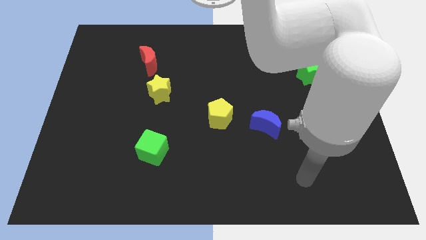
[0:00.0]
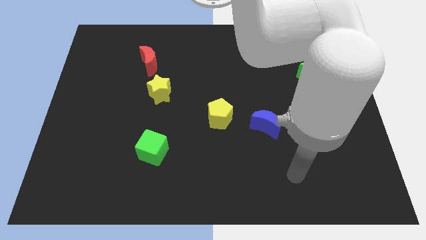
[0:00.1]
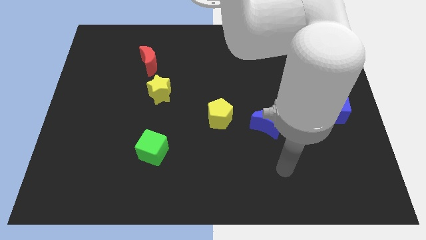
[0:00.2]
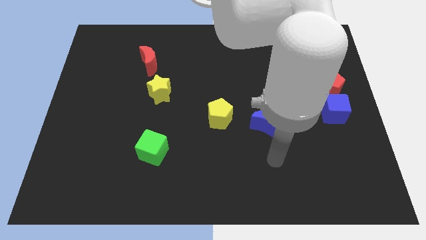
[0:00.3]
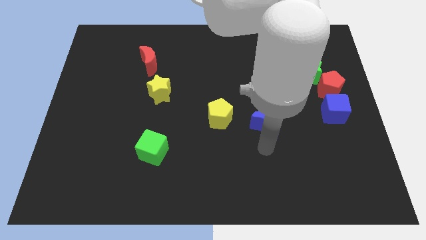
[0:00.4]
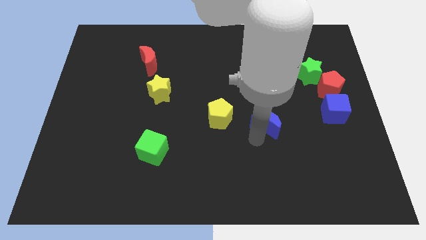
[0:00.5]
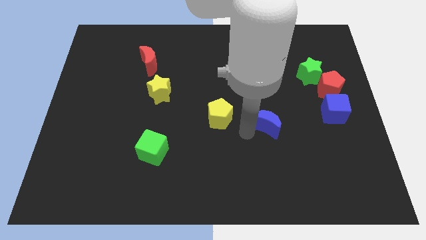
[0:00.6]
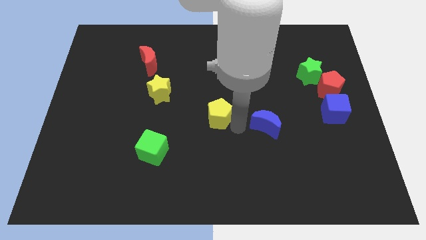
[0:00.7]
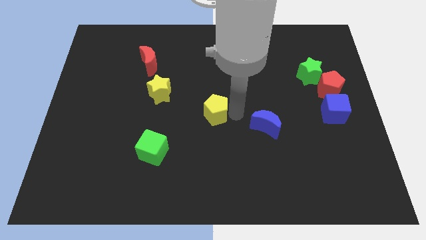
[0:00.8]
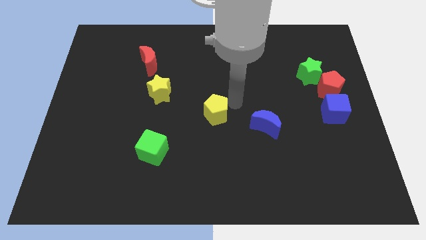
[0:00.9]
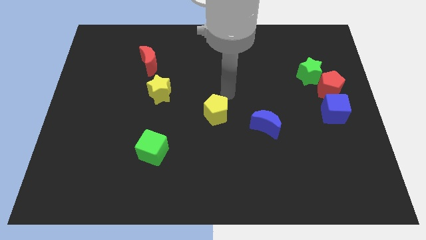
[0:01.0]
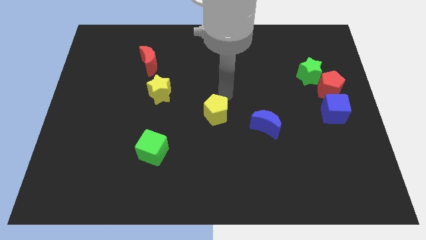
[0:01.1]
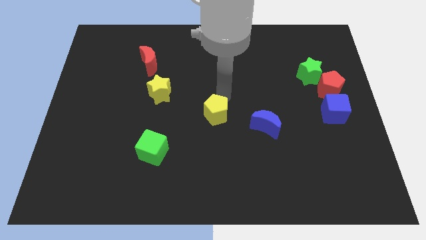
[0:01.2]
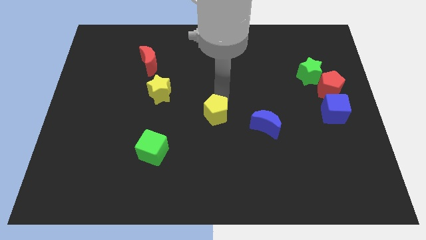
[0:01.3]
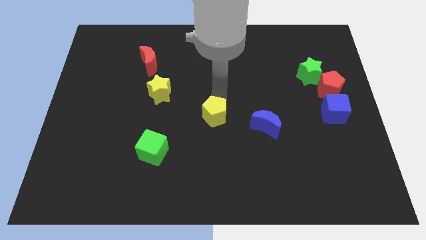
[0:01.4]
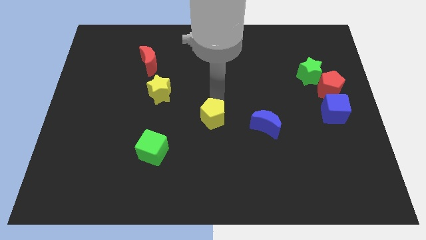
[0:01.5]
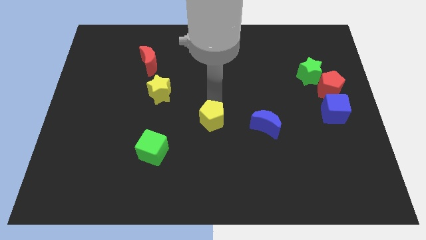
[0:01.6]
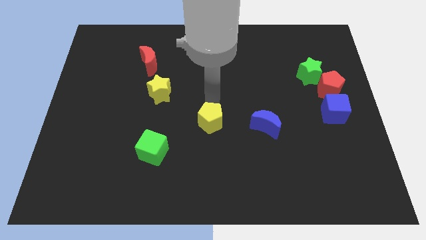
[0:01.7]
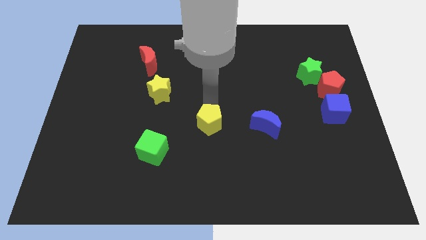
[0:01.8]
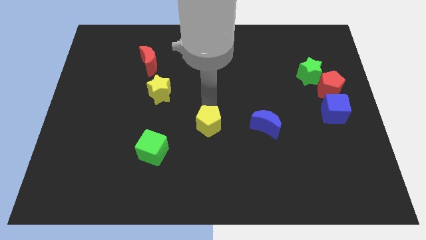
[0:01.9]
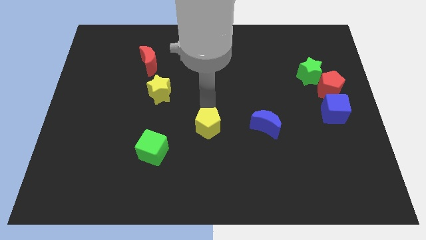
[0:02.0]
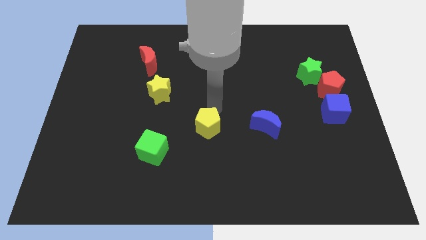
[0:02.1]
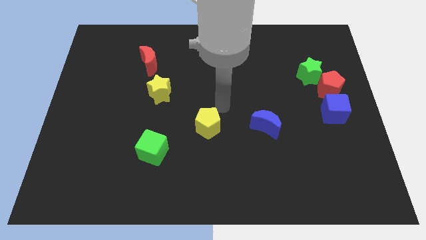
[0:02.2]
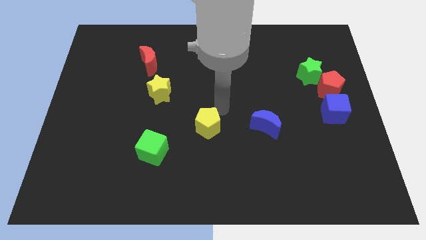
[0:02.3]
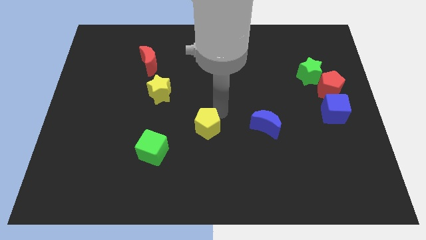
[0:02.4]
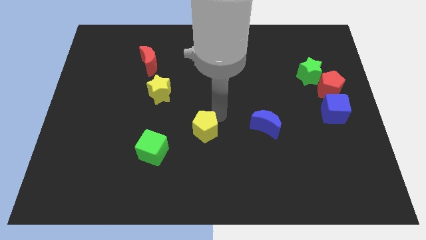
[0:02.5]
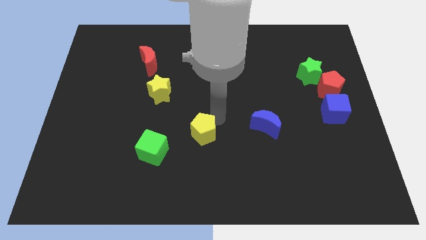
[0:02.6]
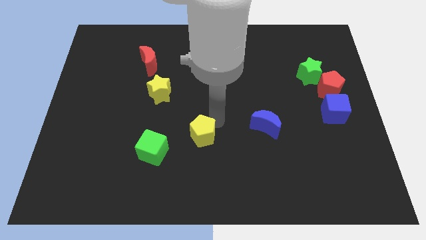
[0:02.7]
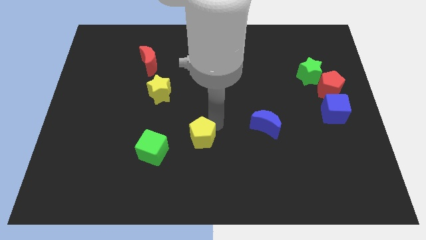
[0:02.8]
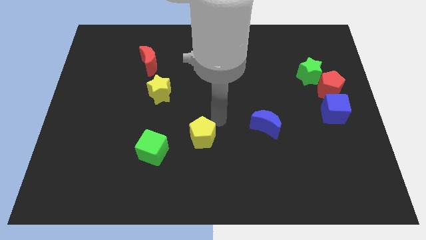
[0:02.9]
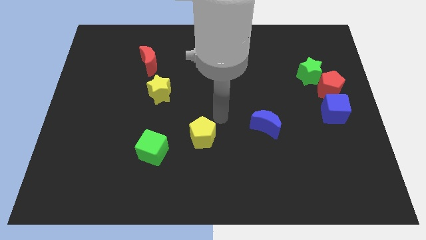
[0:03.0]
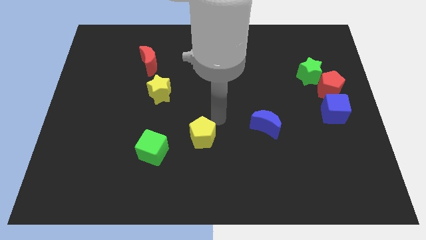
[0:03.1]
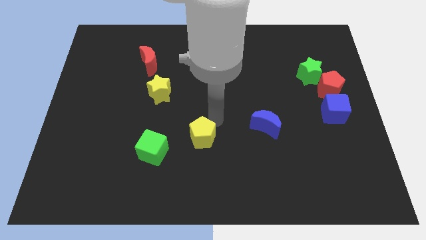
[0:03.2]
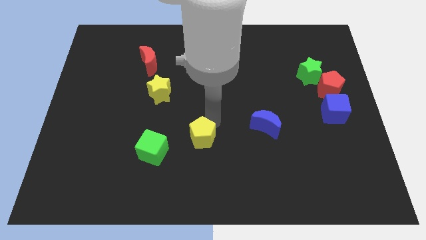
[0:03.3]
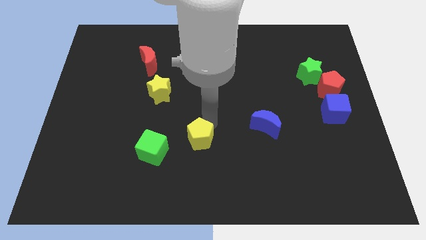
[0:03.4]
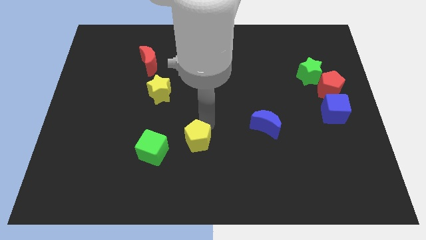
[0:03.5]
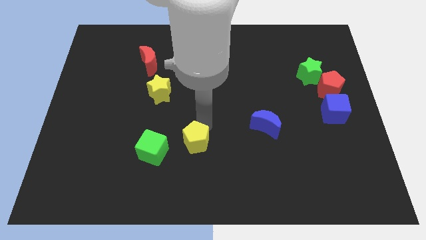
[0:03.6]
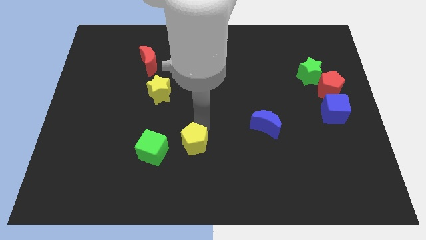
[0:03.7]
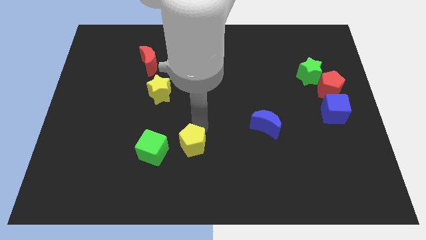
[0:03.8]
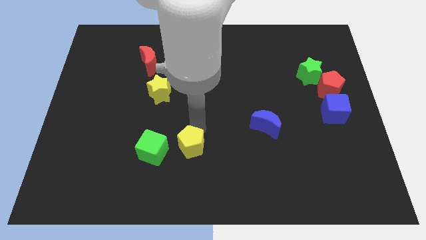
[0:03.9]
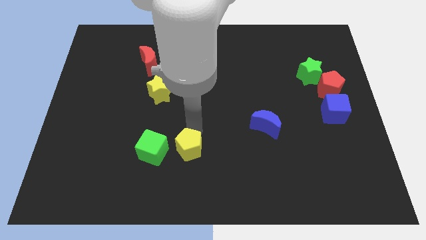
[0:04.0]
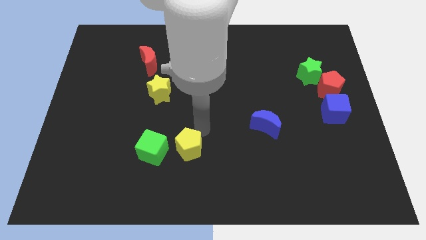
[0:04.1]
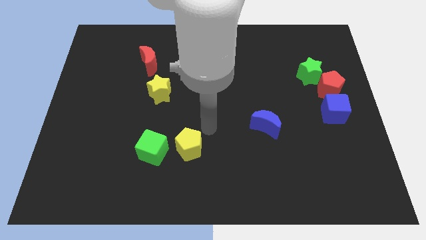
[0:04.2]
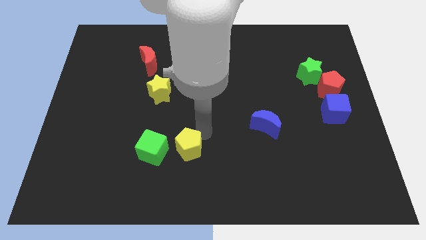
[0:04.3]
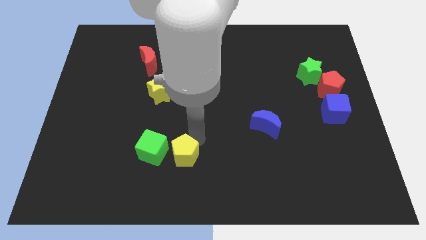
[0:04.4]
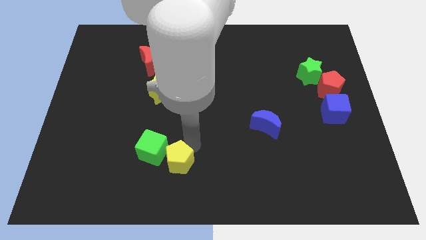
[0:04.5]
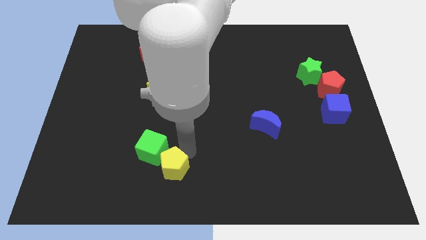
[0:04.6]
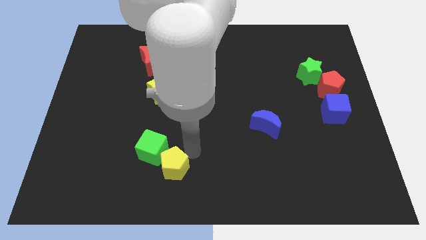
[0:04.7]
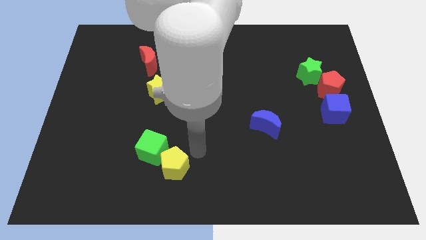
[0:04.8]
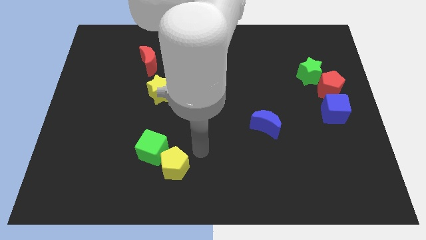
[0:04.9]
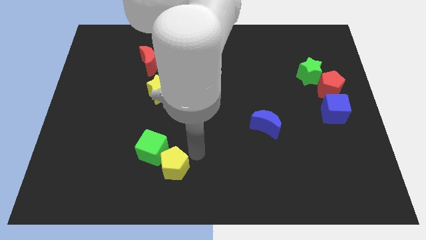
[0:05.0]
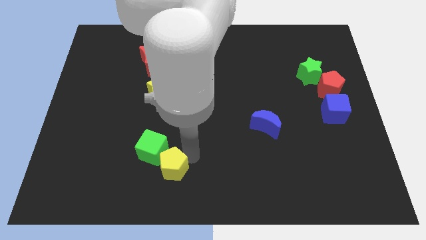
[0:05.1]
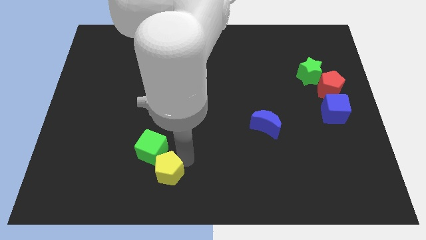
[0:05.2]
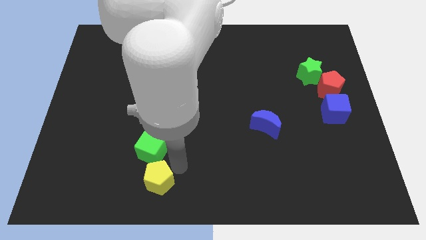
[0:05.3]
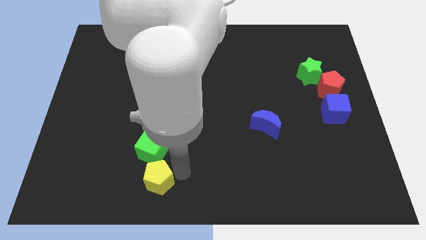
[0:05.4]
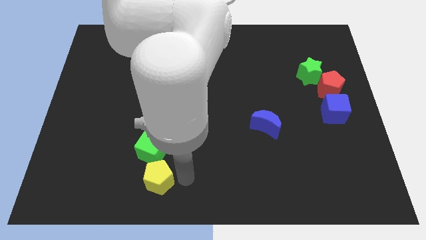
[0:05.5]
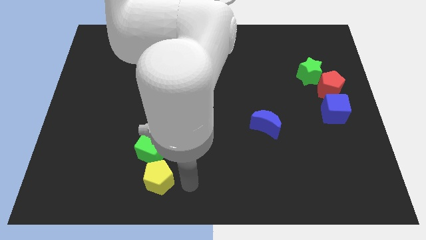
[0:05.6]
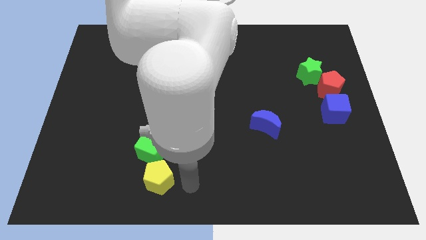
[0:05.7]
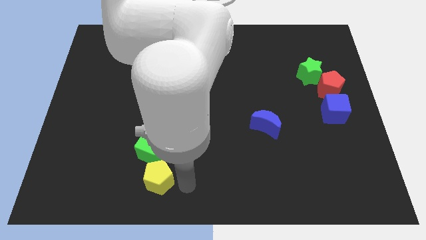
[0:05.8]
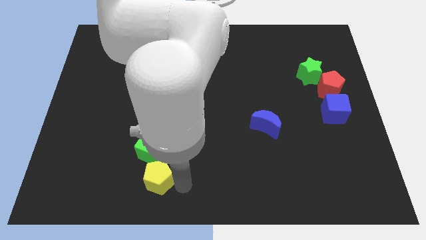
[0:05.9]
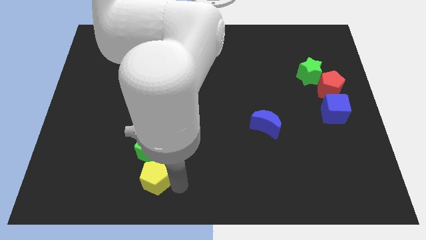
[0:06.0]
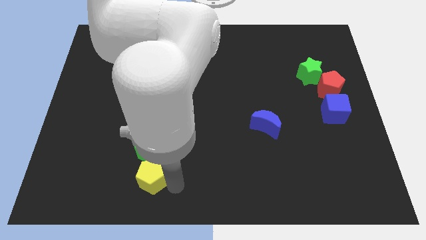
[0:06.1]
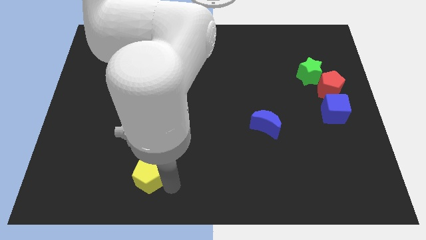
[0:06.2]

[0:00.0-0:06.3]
push the yellow pentagon to the bottom left side of the green cube
